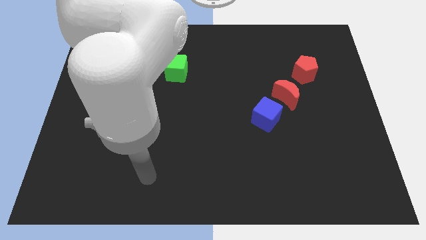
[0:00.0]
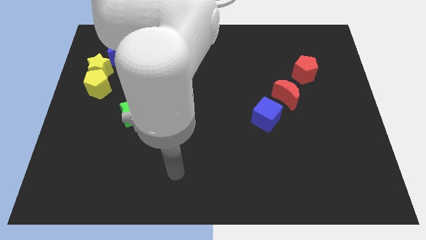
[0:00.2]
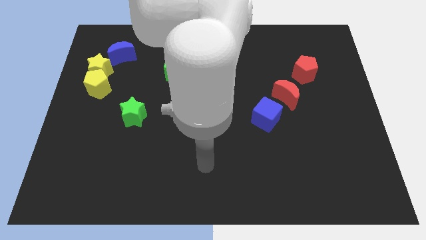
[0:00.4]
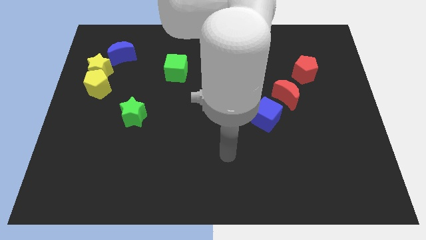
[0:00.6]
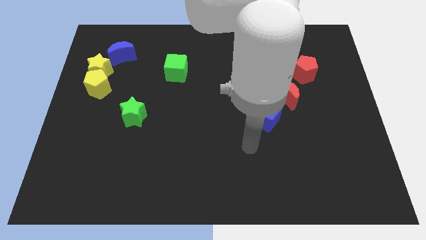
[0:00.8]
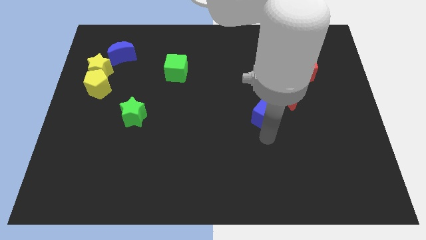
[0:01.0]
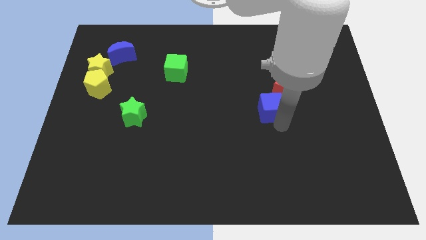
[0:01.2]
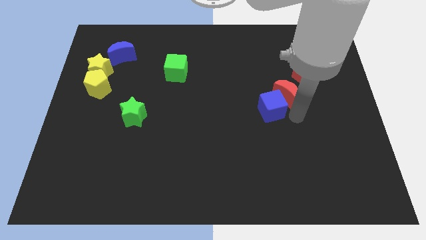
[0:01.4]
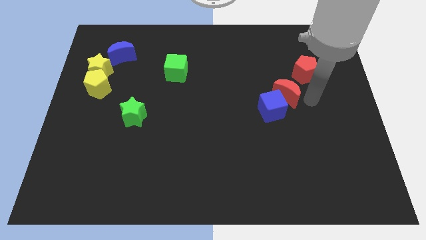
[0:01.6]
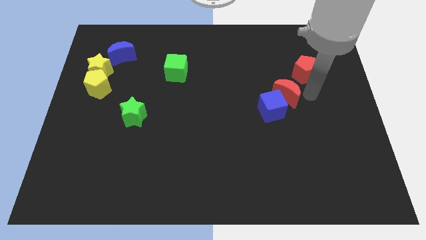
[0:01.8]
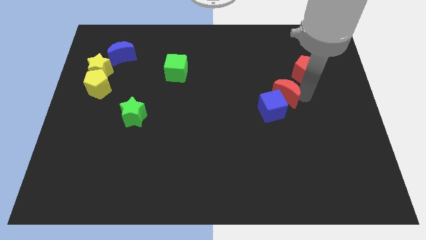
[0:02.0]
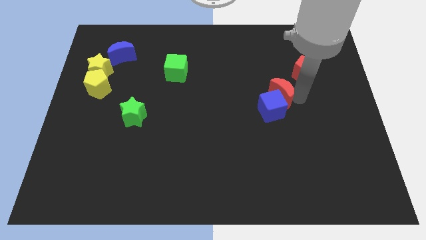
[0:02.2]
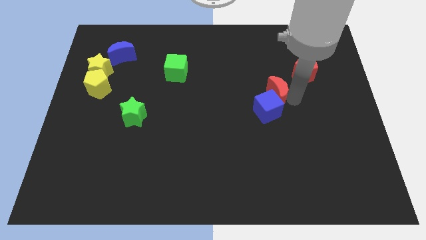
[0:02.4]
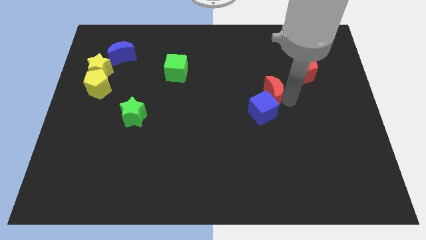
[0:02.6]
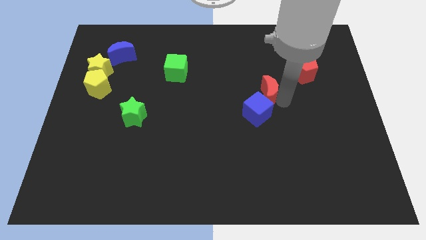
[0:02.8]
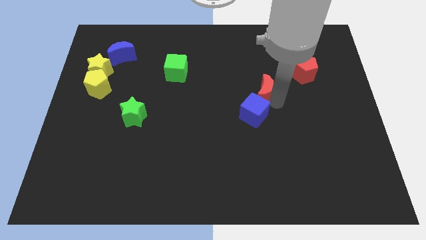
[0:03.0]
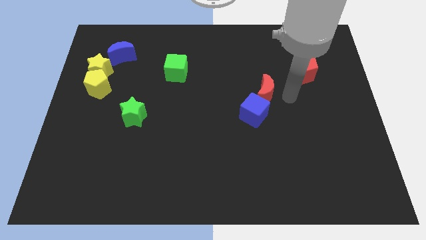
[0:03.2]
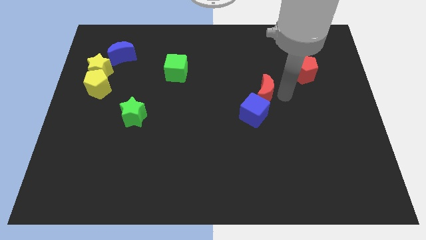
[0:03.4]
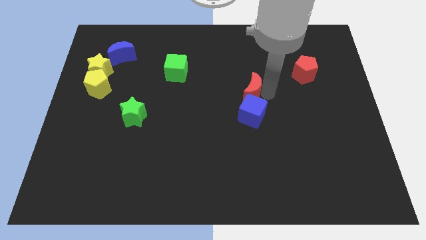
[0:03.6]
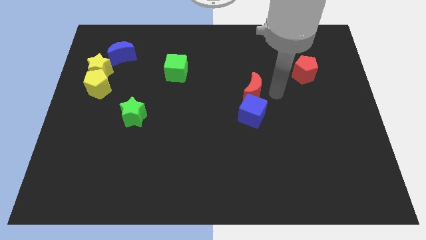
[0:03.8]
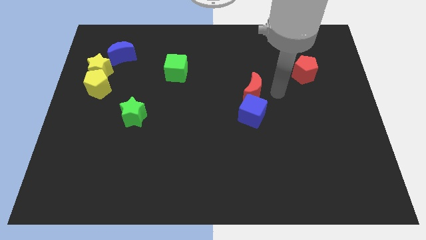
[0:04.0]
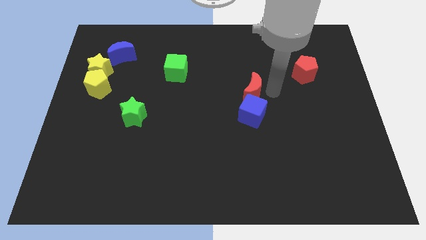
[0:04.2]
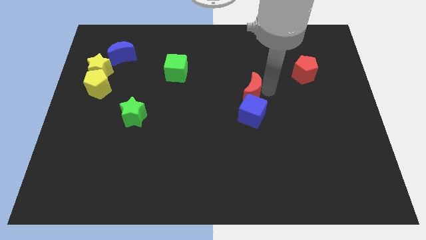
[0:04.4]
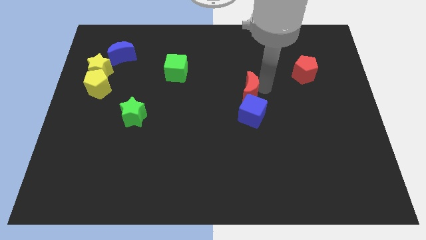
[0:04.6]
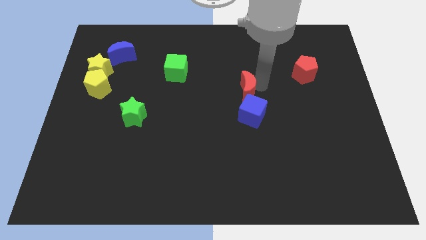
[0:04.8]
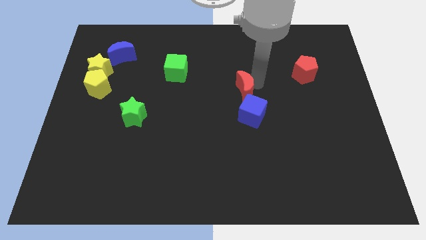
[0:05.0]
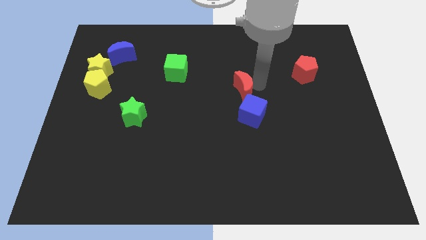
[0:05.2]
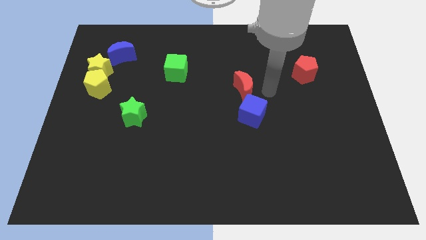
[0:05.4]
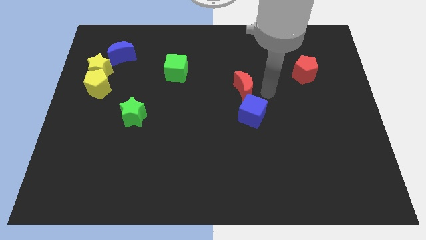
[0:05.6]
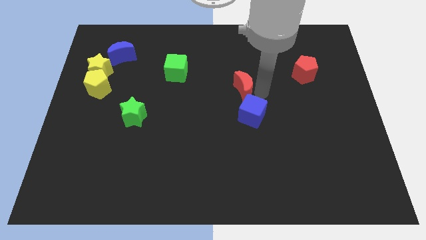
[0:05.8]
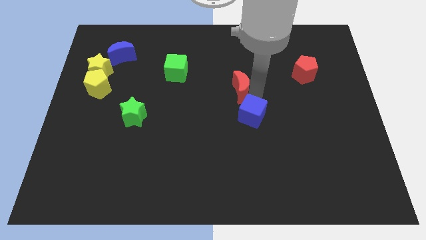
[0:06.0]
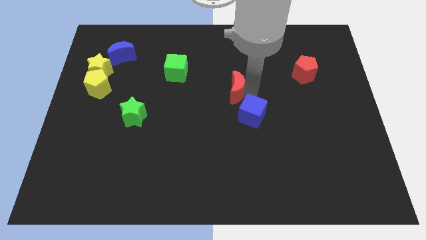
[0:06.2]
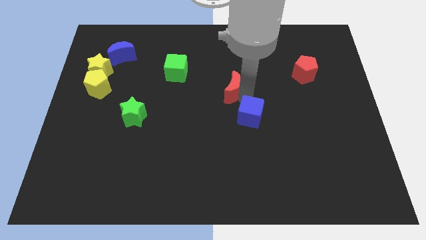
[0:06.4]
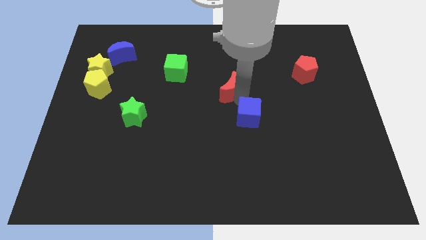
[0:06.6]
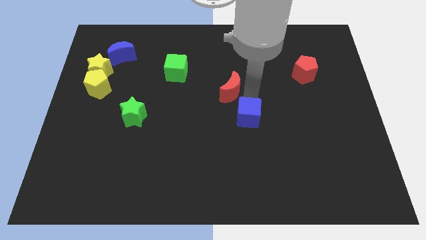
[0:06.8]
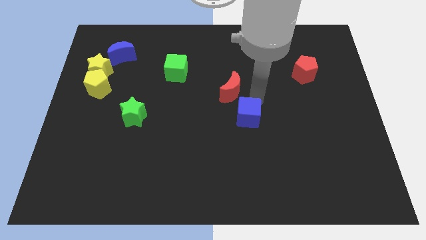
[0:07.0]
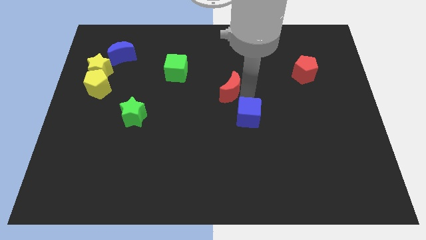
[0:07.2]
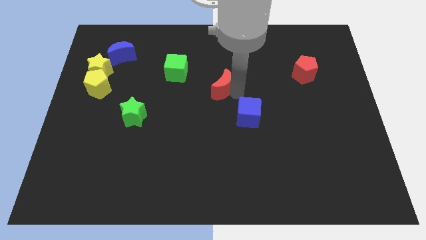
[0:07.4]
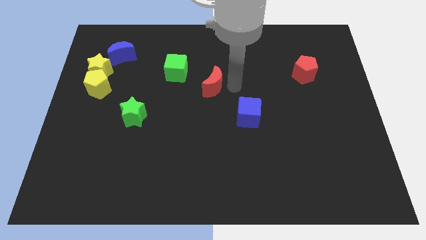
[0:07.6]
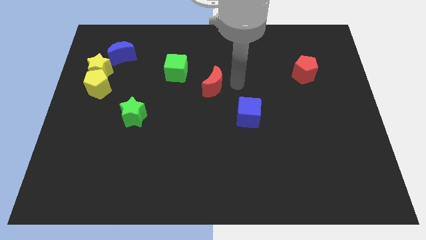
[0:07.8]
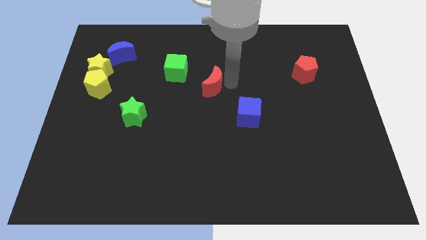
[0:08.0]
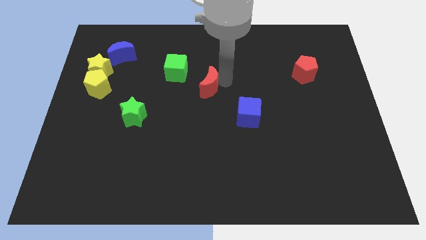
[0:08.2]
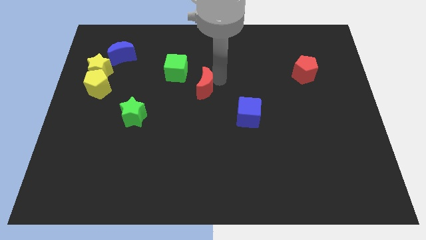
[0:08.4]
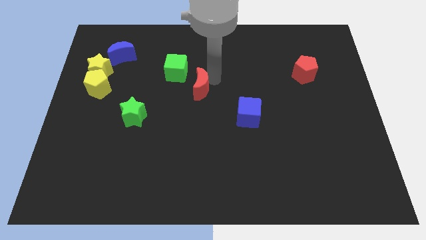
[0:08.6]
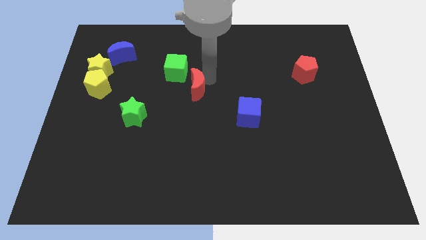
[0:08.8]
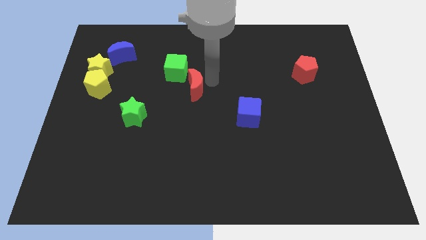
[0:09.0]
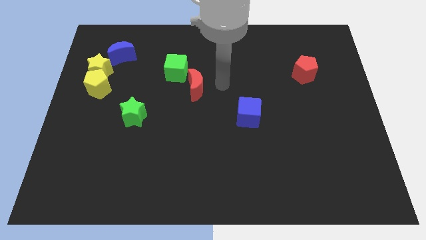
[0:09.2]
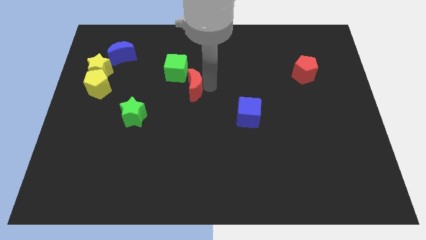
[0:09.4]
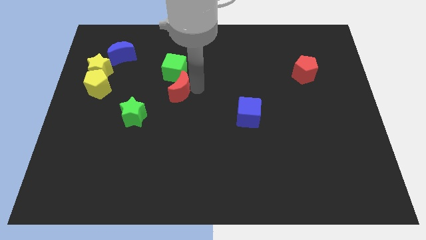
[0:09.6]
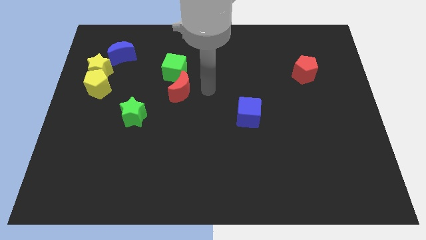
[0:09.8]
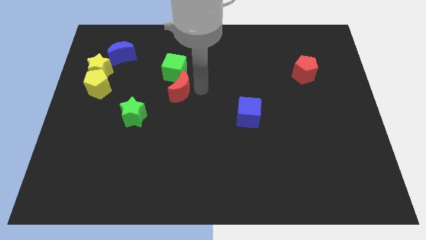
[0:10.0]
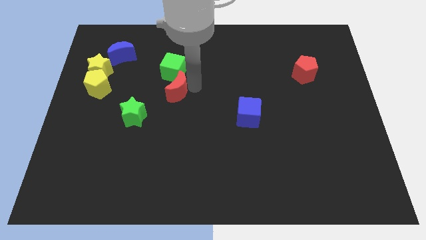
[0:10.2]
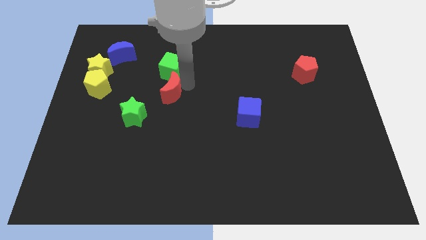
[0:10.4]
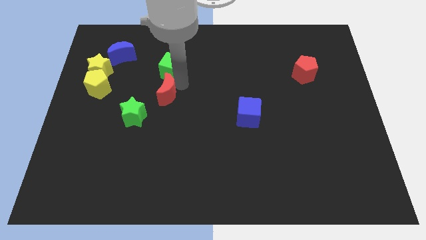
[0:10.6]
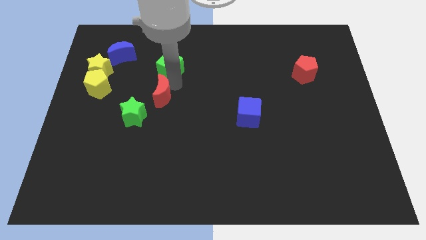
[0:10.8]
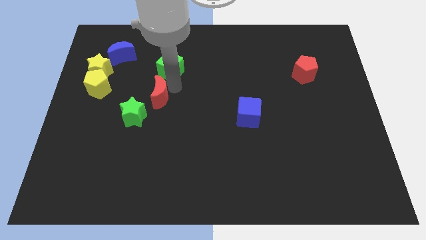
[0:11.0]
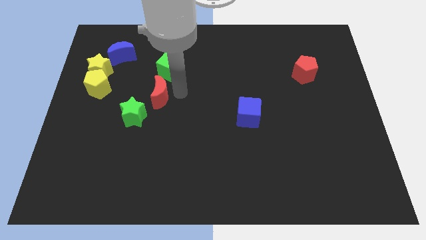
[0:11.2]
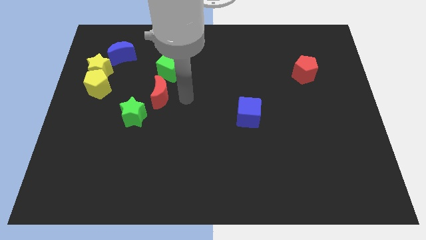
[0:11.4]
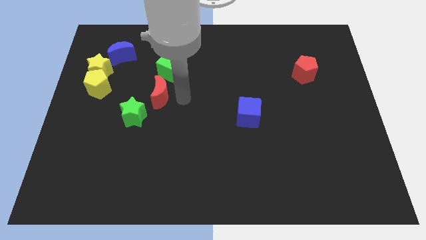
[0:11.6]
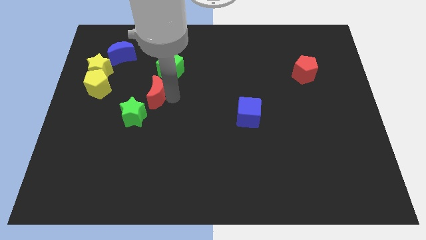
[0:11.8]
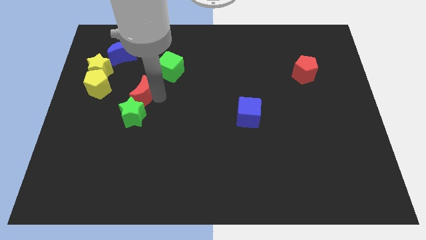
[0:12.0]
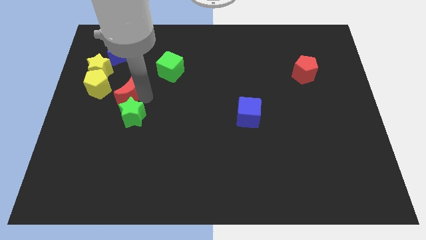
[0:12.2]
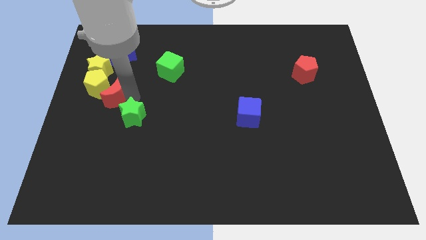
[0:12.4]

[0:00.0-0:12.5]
move the red moon next to the yellow pentagon
